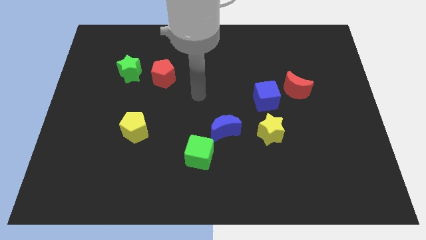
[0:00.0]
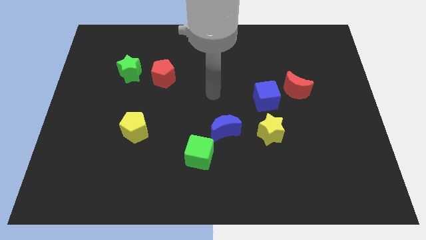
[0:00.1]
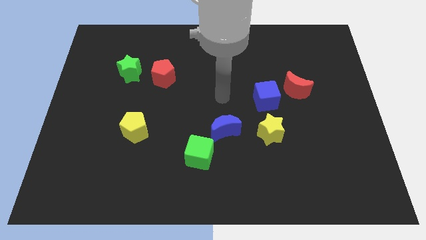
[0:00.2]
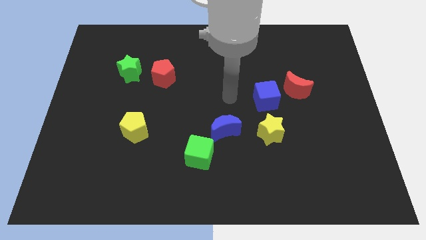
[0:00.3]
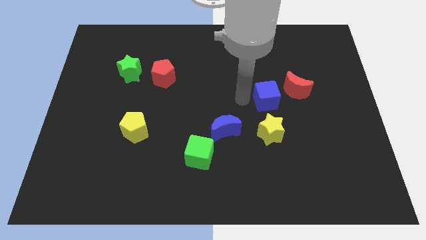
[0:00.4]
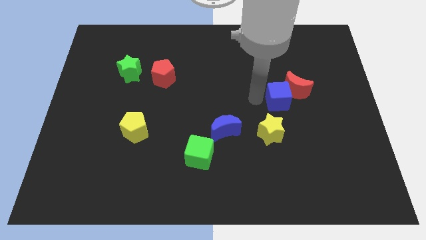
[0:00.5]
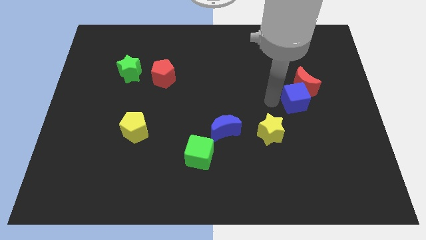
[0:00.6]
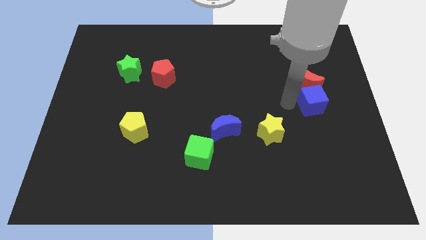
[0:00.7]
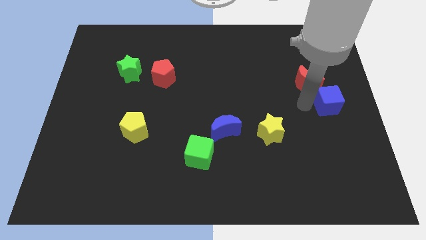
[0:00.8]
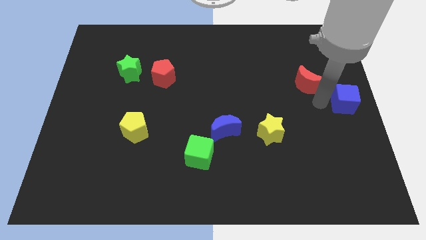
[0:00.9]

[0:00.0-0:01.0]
pull the red moon apart from the blue cube

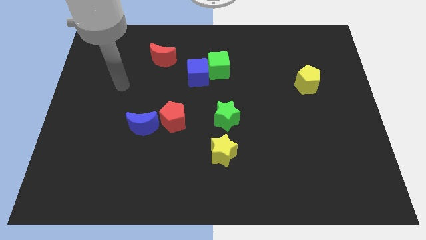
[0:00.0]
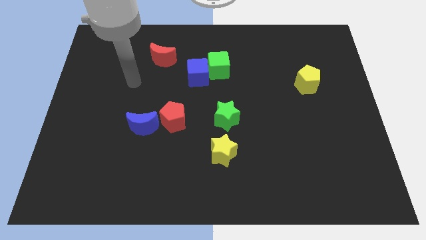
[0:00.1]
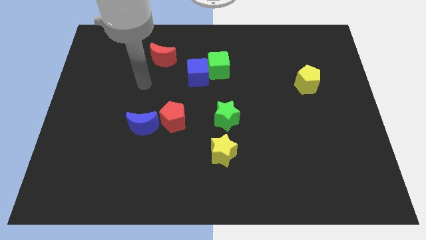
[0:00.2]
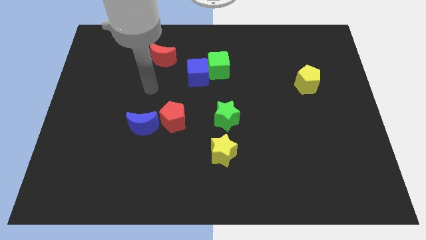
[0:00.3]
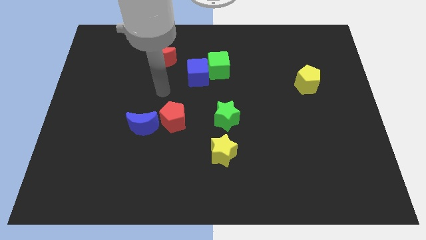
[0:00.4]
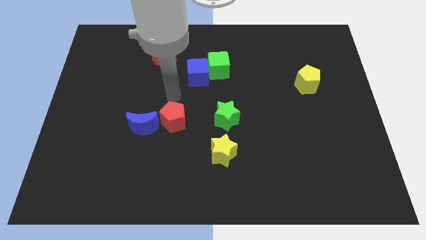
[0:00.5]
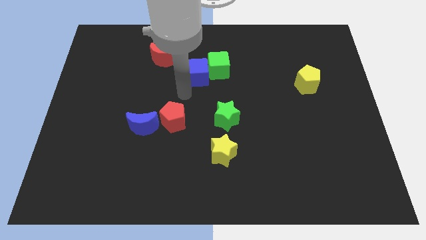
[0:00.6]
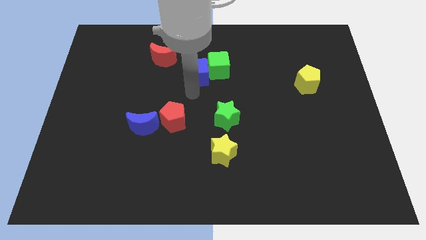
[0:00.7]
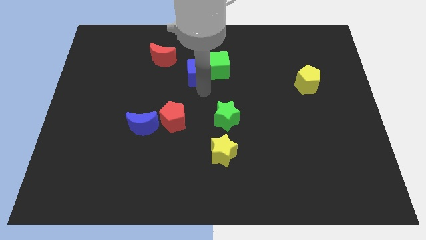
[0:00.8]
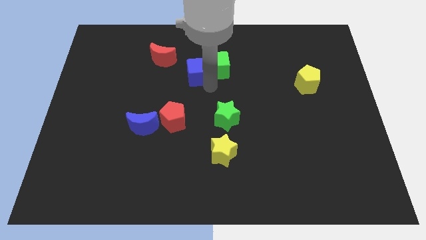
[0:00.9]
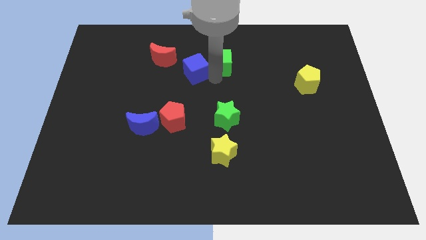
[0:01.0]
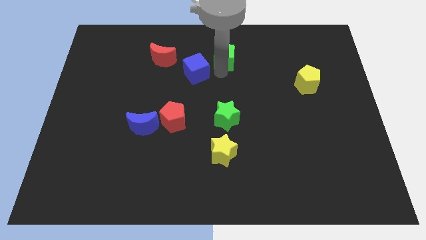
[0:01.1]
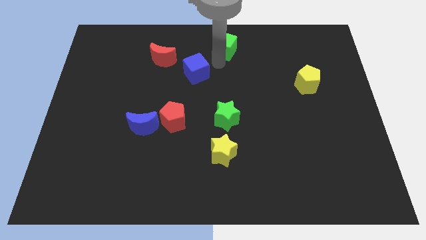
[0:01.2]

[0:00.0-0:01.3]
separate the blue cube from the green cube

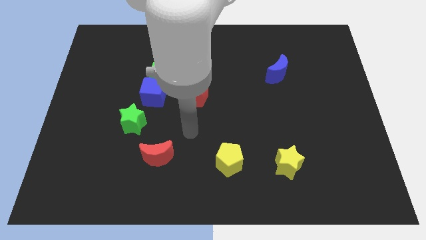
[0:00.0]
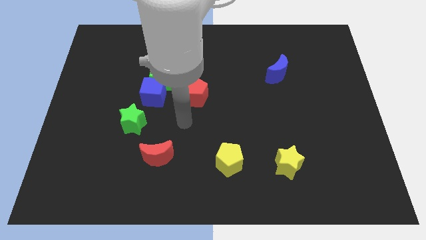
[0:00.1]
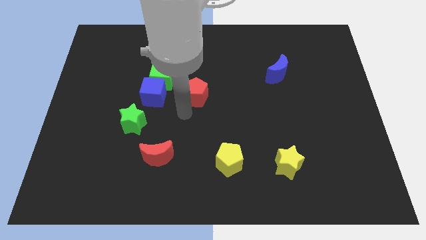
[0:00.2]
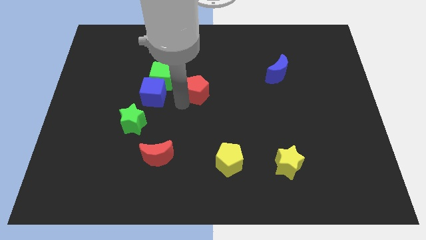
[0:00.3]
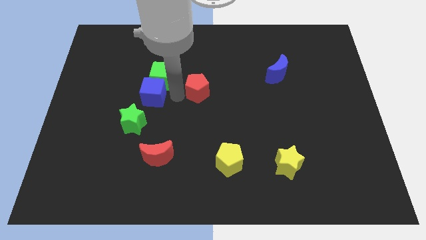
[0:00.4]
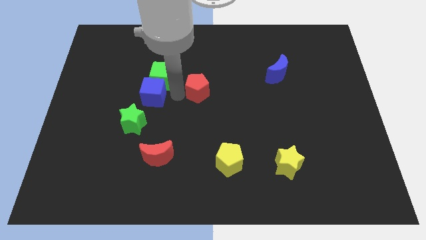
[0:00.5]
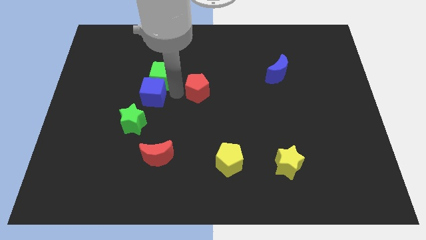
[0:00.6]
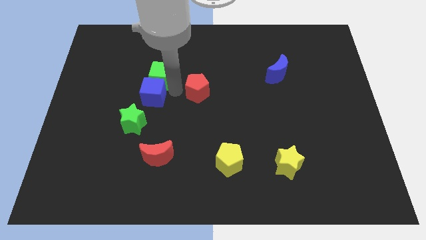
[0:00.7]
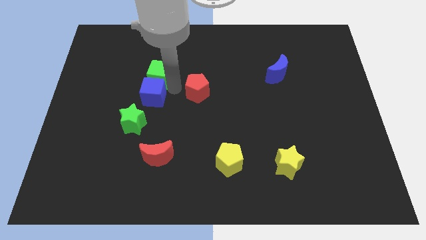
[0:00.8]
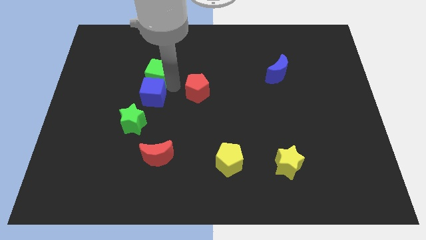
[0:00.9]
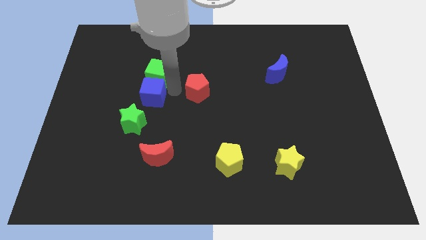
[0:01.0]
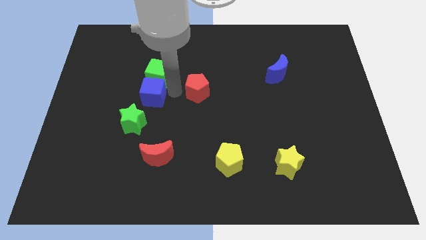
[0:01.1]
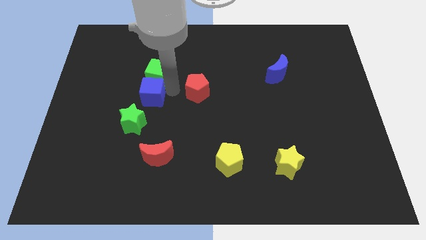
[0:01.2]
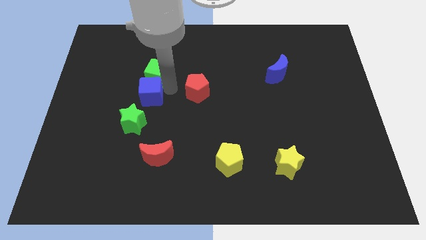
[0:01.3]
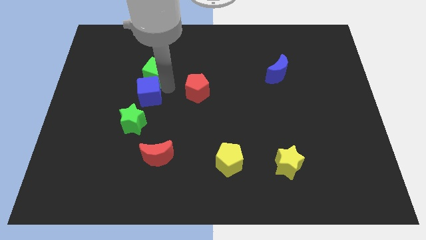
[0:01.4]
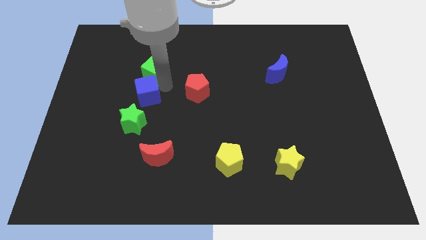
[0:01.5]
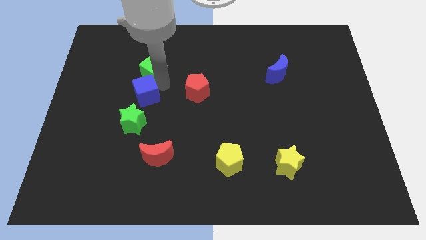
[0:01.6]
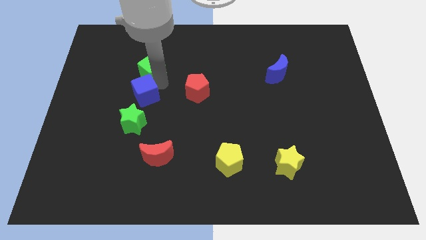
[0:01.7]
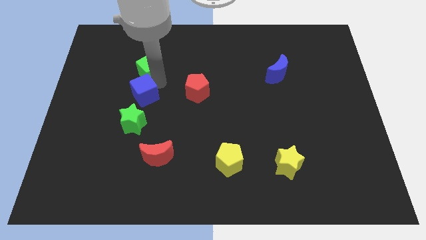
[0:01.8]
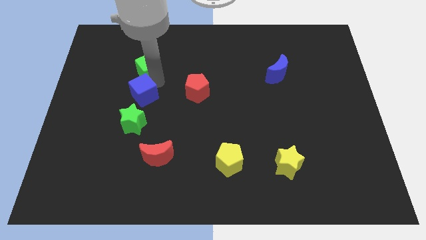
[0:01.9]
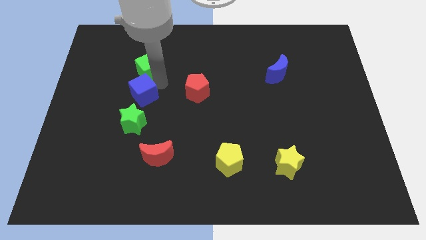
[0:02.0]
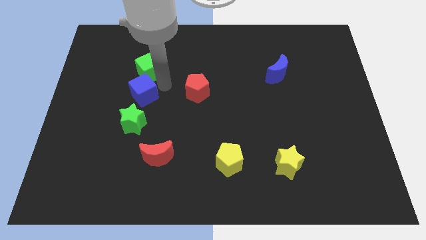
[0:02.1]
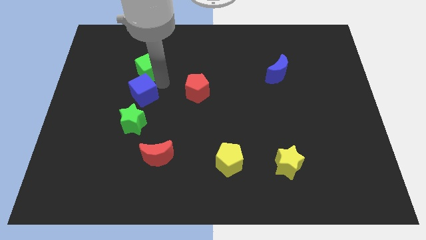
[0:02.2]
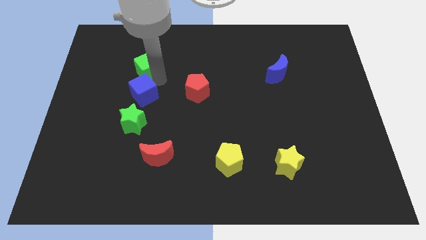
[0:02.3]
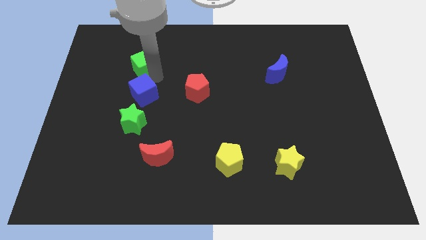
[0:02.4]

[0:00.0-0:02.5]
separate the green cube from the blue cube and red pentagon

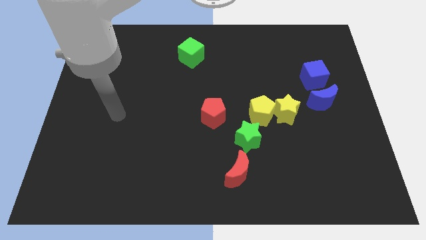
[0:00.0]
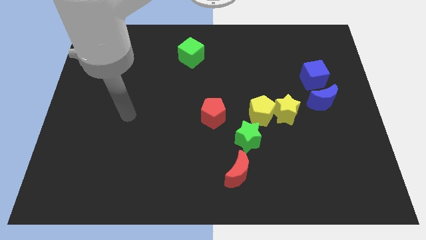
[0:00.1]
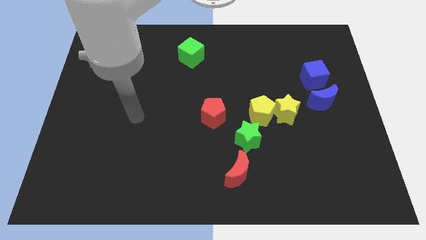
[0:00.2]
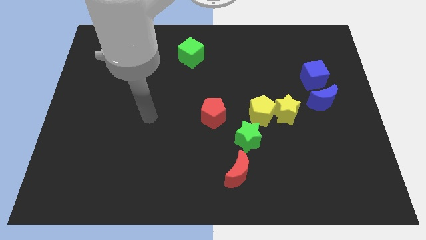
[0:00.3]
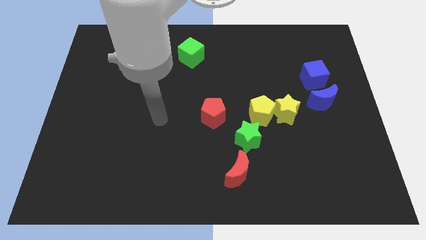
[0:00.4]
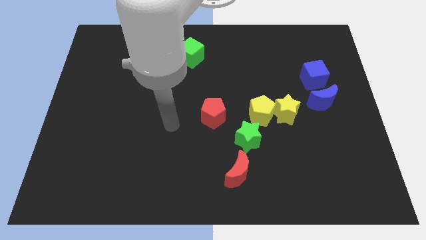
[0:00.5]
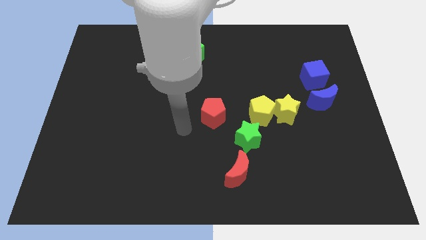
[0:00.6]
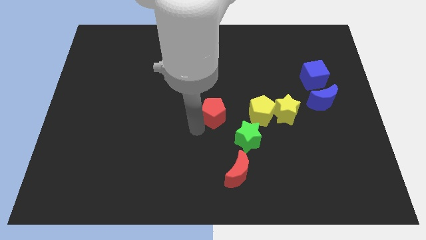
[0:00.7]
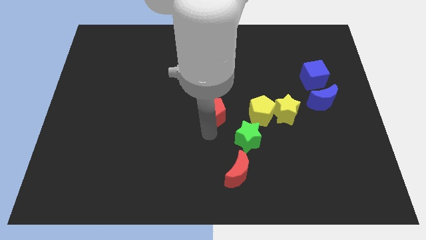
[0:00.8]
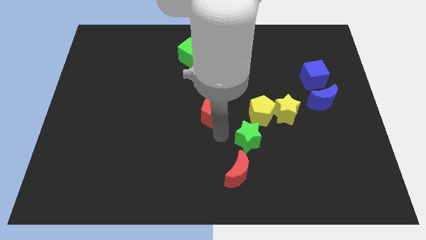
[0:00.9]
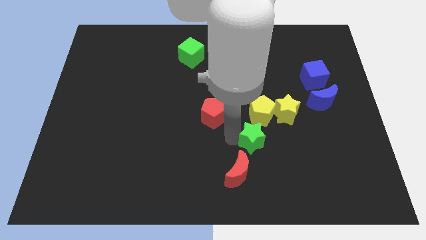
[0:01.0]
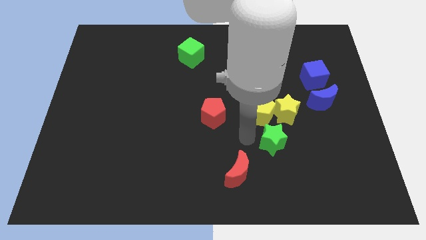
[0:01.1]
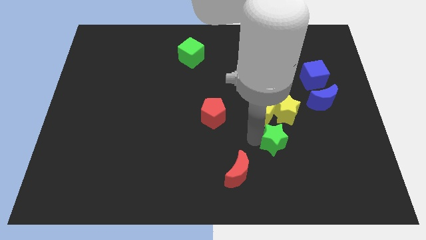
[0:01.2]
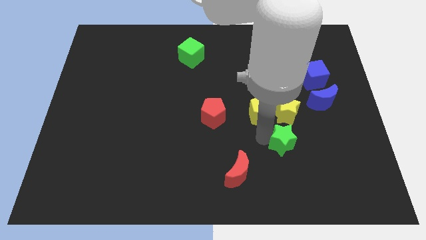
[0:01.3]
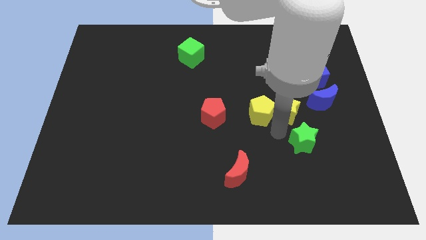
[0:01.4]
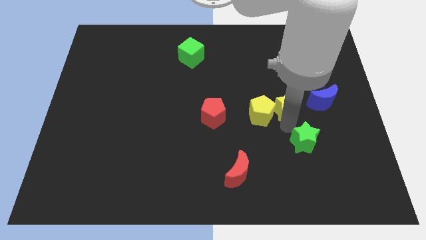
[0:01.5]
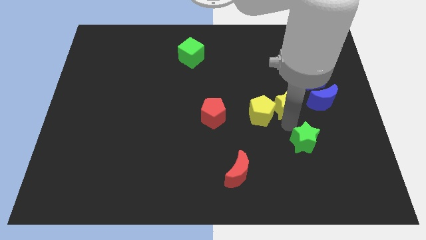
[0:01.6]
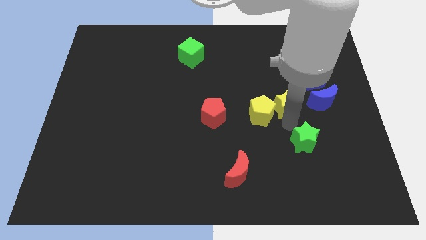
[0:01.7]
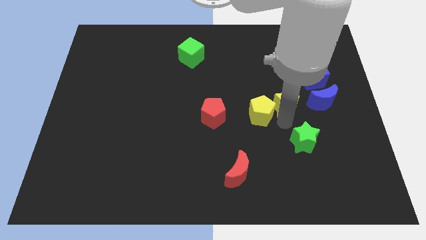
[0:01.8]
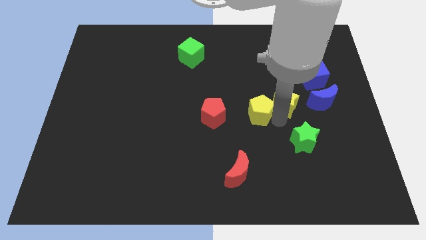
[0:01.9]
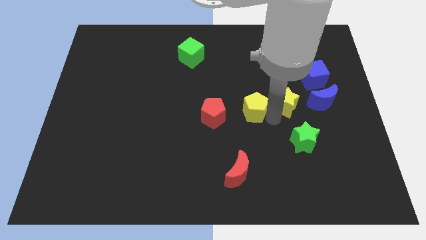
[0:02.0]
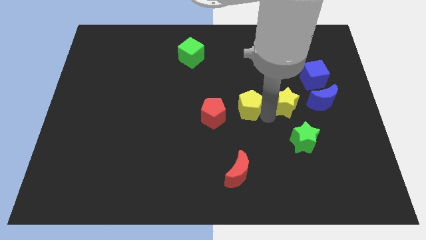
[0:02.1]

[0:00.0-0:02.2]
separate the yellow pentagon from the yellow star and green star

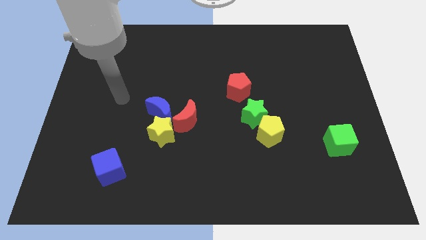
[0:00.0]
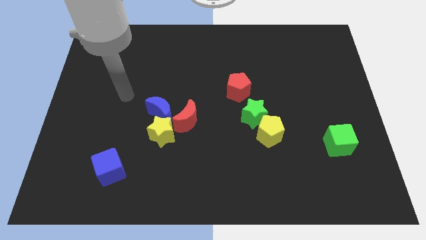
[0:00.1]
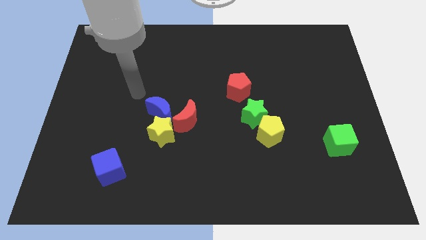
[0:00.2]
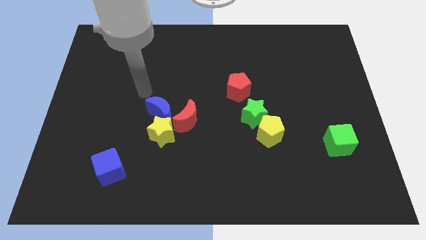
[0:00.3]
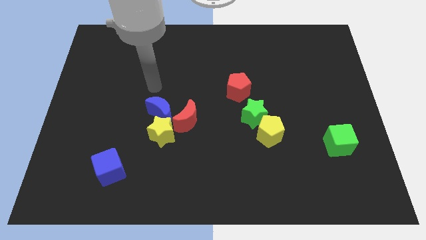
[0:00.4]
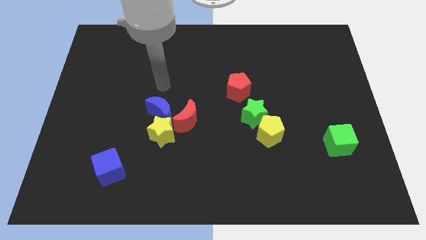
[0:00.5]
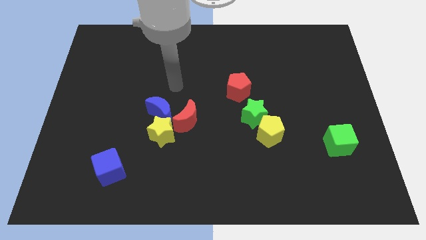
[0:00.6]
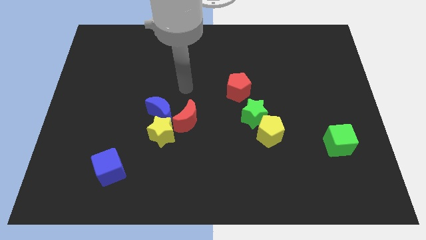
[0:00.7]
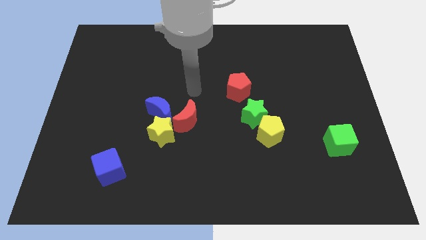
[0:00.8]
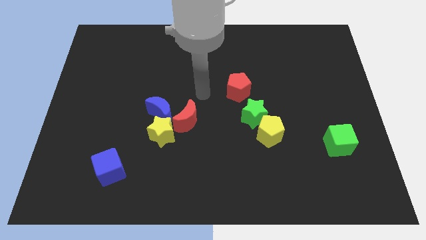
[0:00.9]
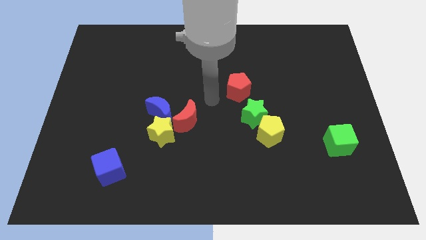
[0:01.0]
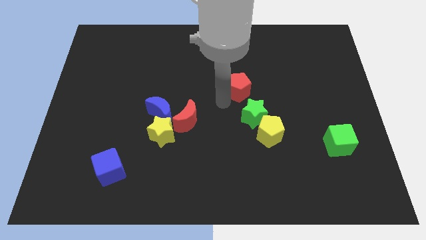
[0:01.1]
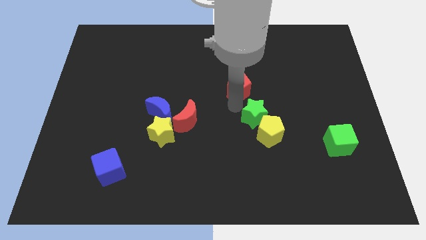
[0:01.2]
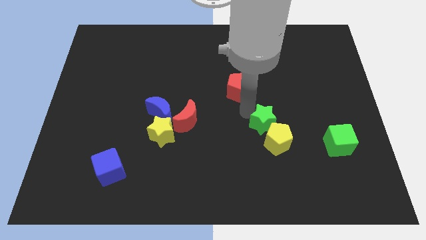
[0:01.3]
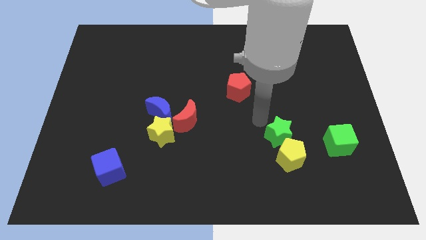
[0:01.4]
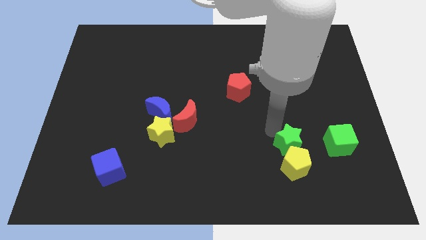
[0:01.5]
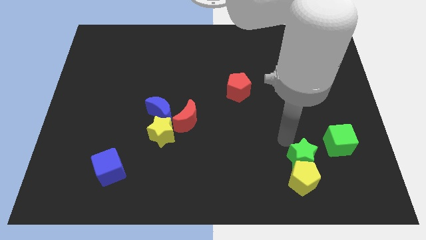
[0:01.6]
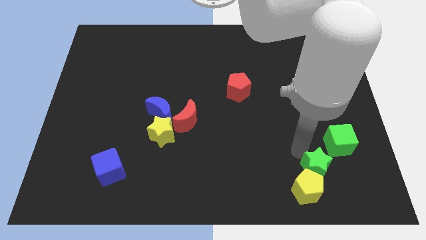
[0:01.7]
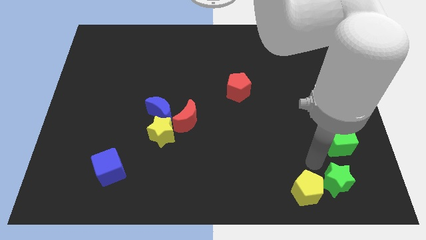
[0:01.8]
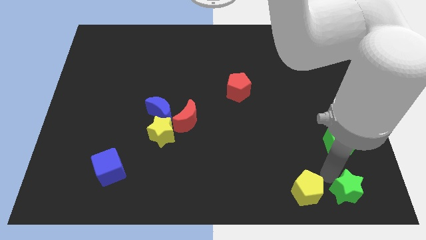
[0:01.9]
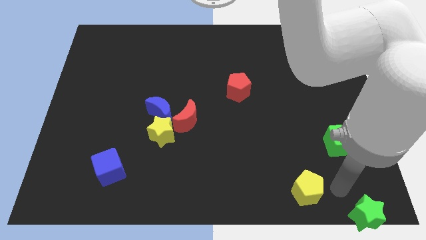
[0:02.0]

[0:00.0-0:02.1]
move the yellow pentagon away from the green star
